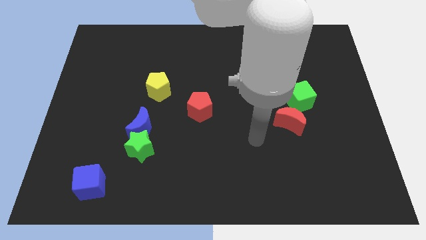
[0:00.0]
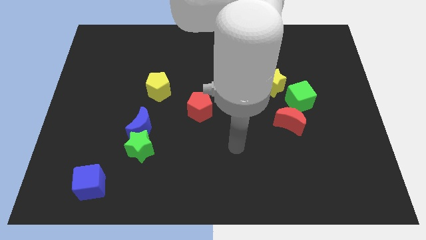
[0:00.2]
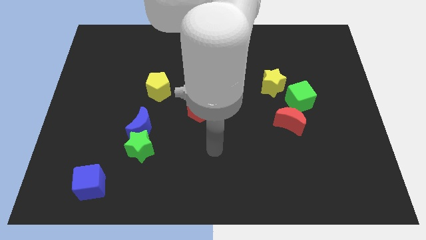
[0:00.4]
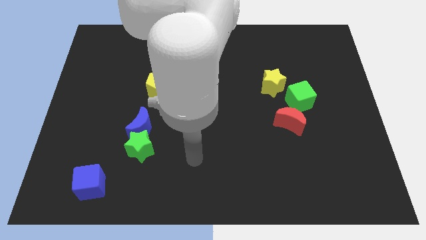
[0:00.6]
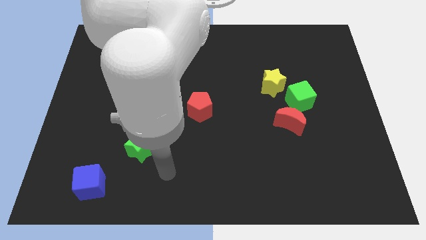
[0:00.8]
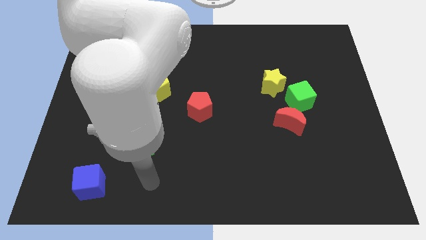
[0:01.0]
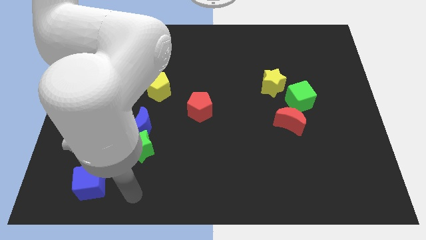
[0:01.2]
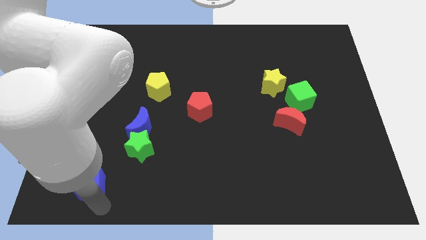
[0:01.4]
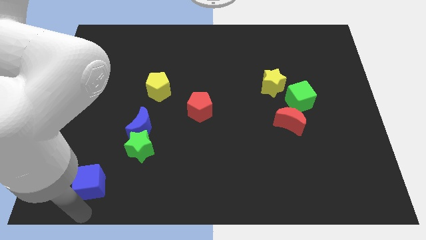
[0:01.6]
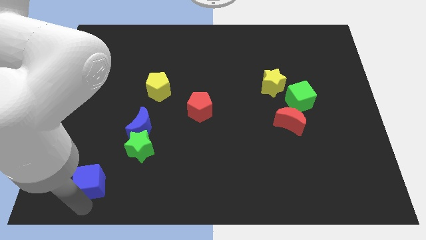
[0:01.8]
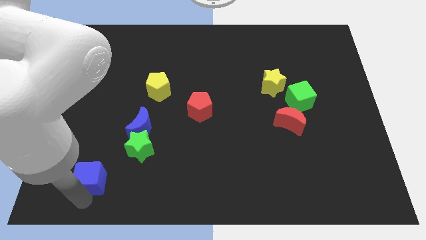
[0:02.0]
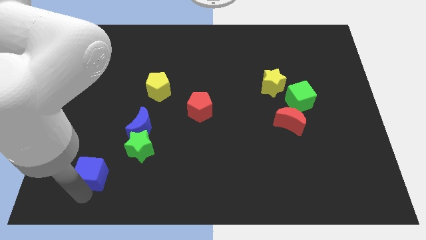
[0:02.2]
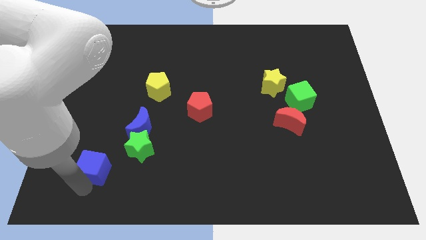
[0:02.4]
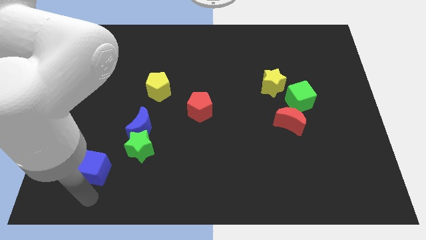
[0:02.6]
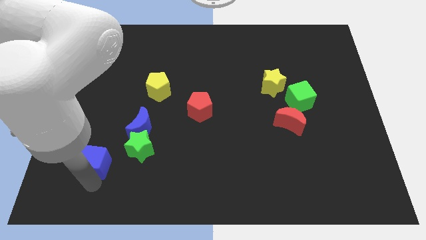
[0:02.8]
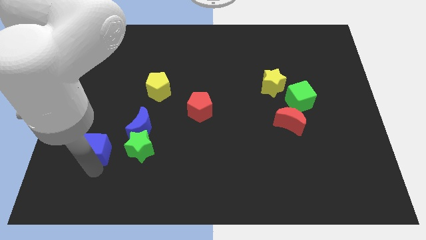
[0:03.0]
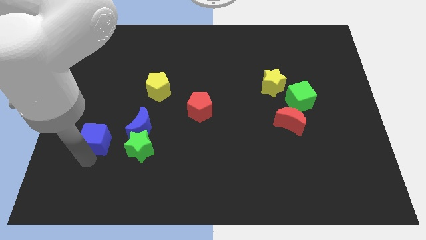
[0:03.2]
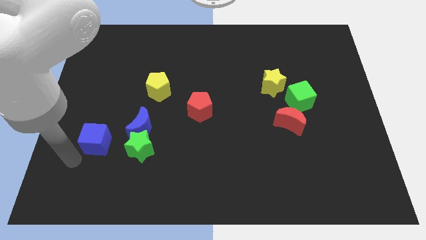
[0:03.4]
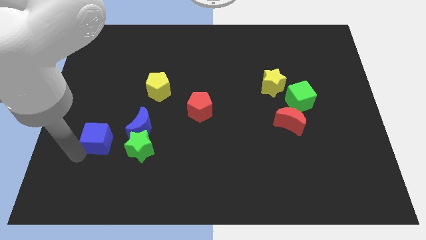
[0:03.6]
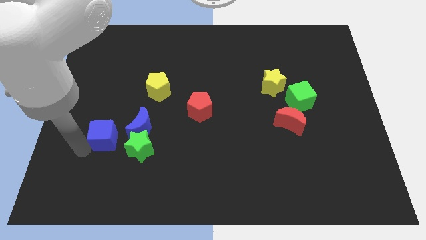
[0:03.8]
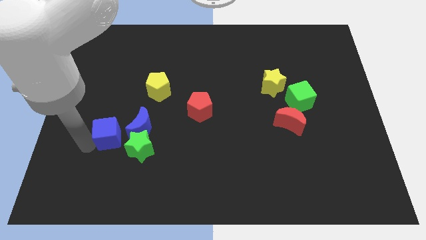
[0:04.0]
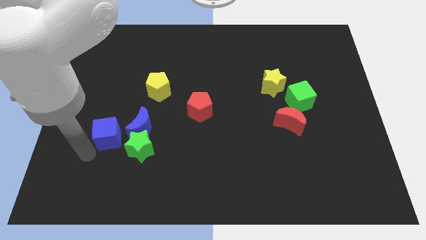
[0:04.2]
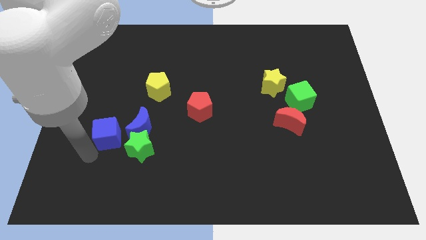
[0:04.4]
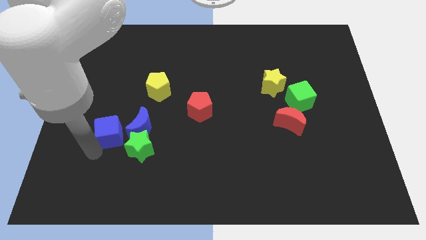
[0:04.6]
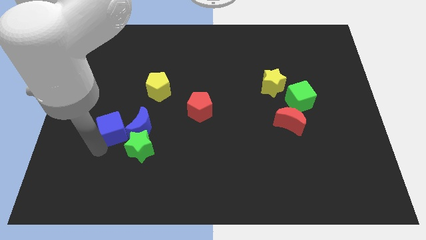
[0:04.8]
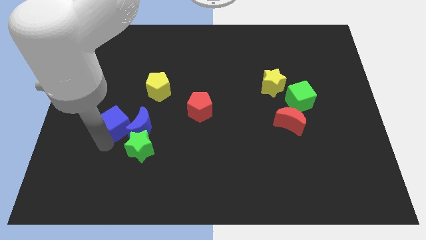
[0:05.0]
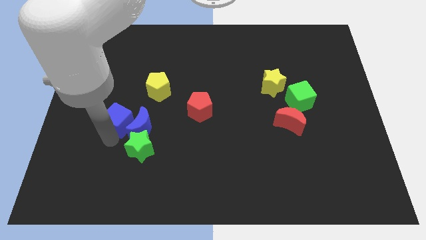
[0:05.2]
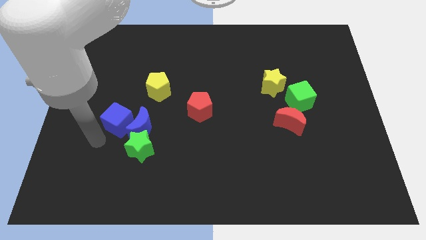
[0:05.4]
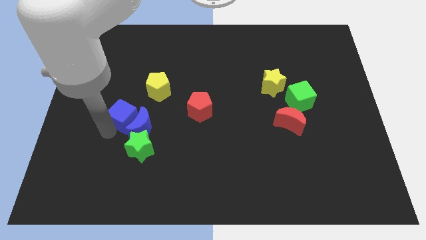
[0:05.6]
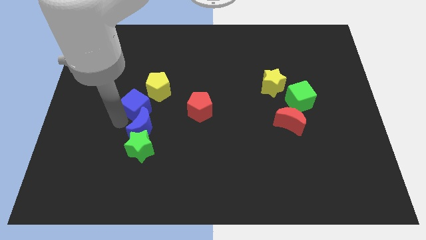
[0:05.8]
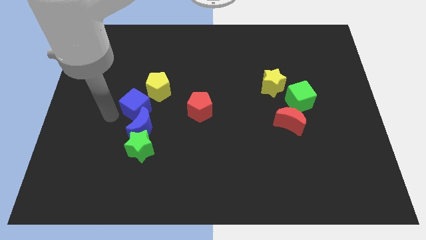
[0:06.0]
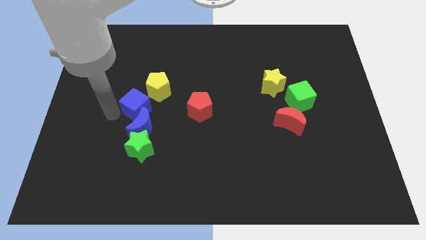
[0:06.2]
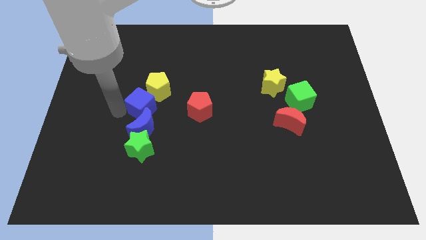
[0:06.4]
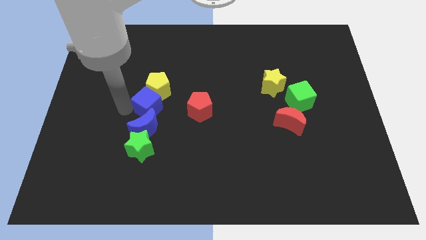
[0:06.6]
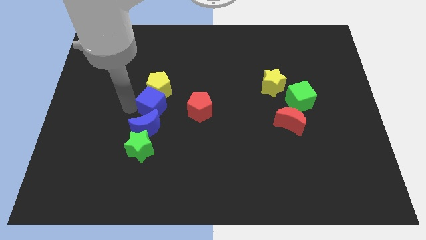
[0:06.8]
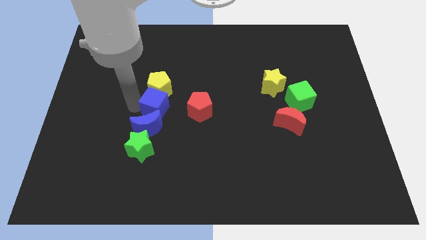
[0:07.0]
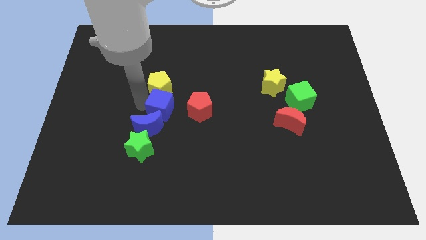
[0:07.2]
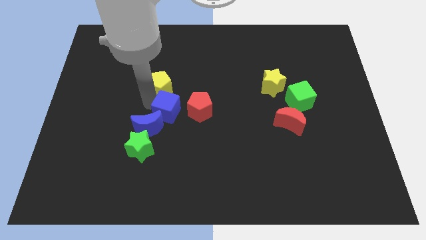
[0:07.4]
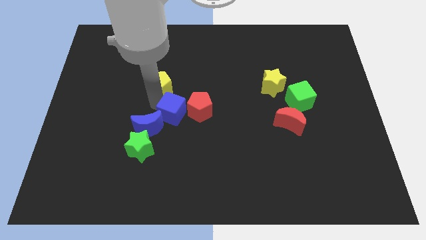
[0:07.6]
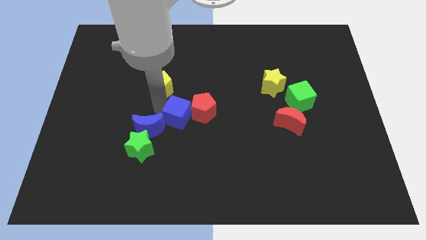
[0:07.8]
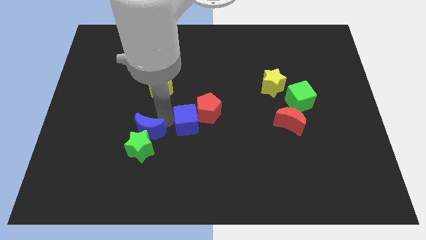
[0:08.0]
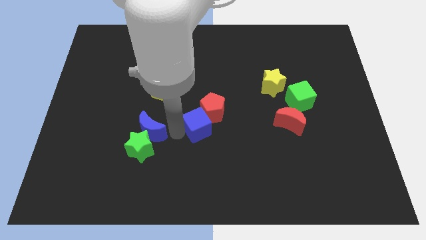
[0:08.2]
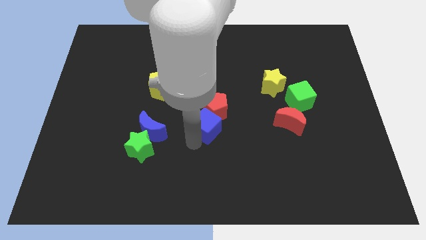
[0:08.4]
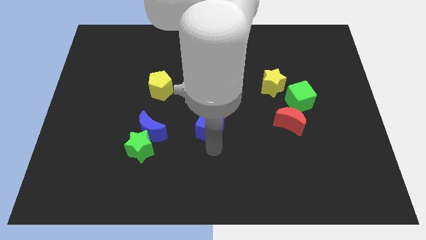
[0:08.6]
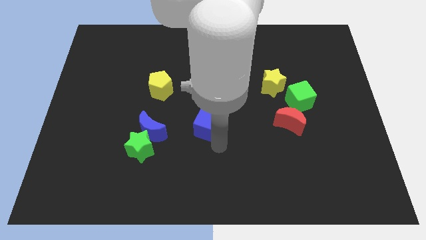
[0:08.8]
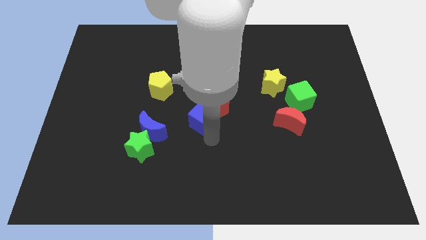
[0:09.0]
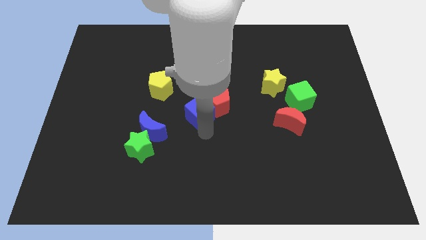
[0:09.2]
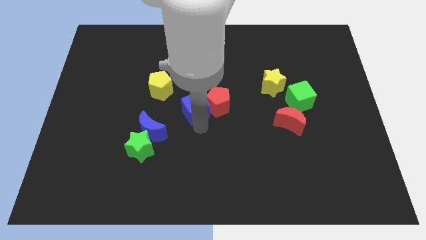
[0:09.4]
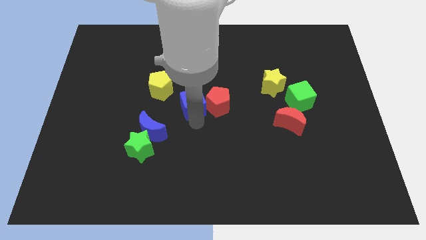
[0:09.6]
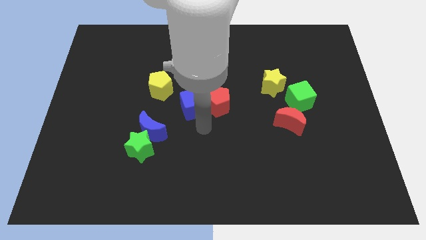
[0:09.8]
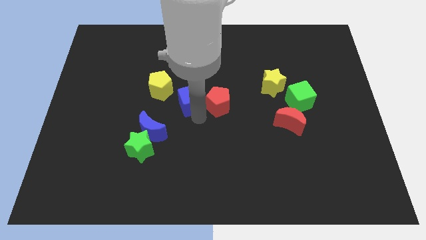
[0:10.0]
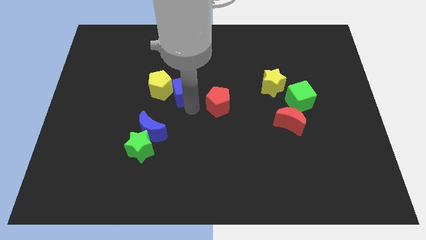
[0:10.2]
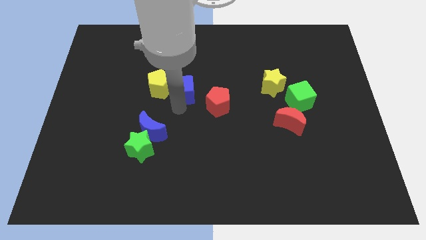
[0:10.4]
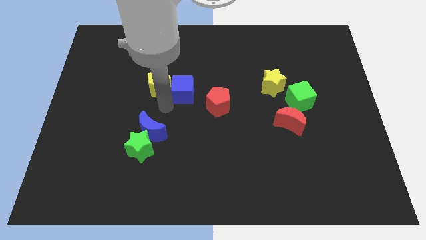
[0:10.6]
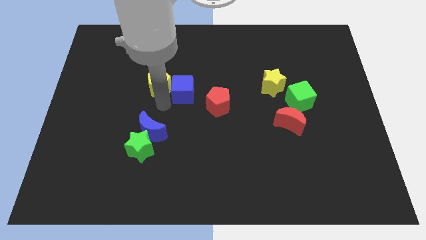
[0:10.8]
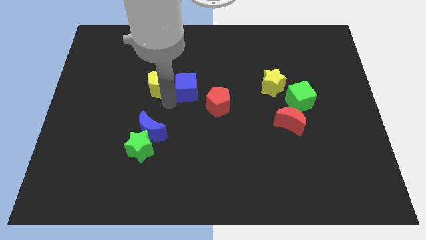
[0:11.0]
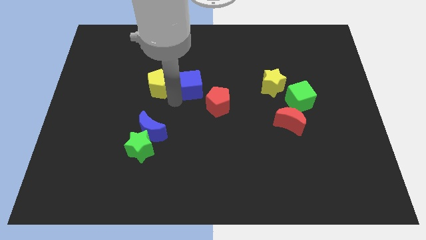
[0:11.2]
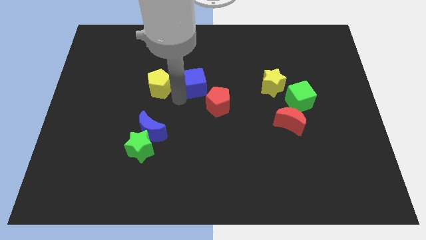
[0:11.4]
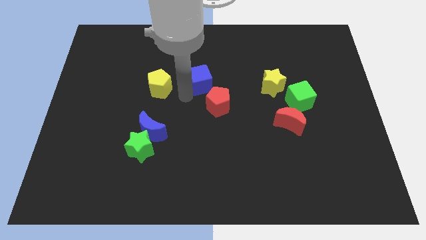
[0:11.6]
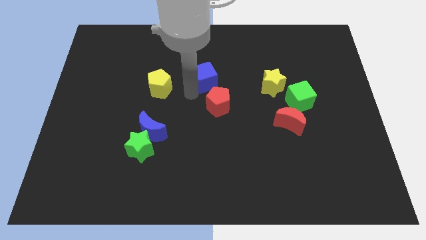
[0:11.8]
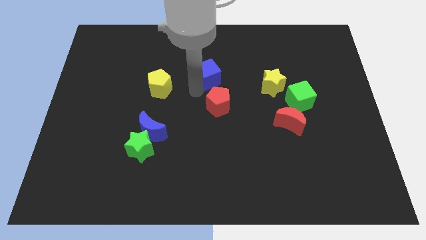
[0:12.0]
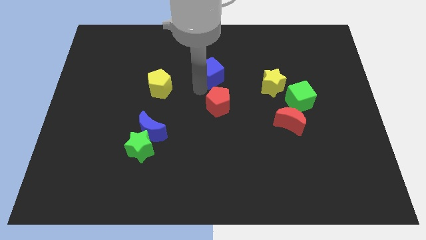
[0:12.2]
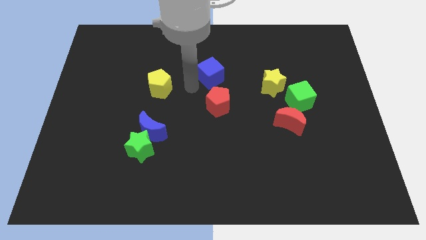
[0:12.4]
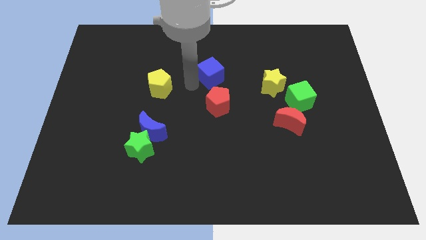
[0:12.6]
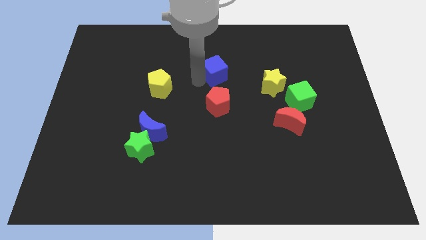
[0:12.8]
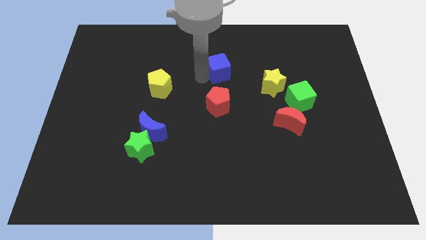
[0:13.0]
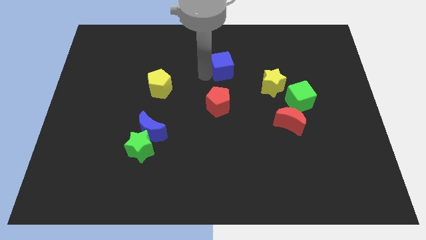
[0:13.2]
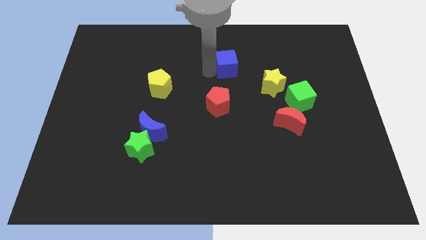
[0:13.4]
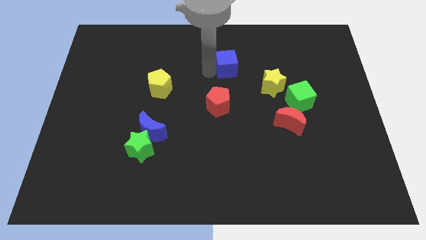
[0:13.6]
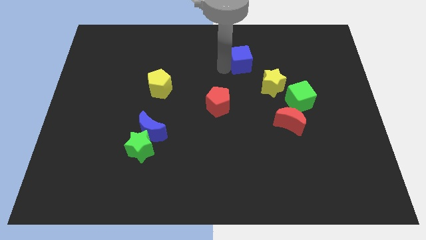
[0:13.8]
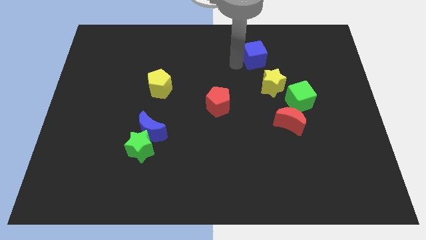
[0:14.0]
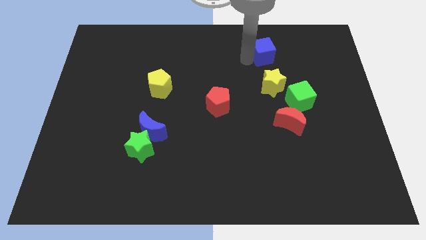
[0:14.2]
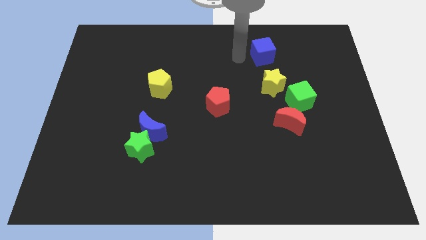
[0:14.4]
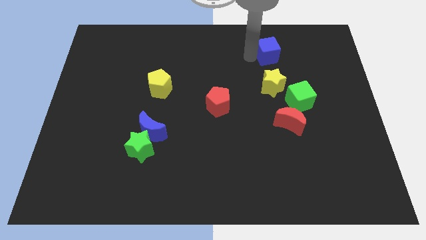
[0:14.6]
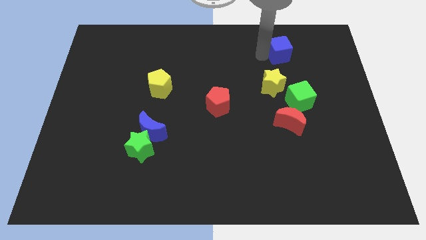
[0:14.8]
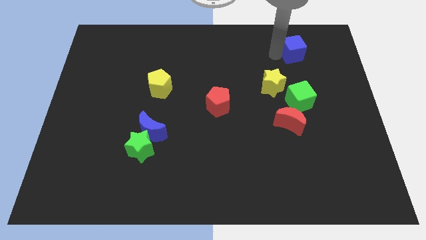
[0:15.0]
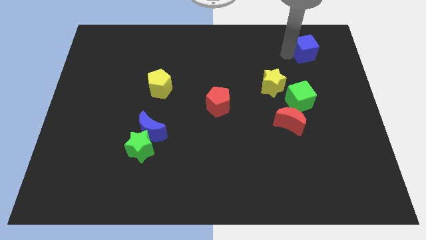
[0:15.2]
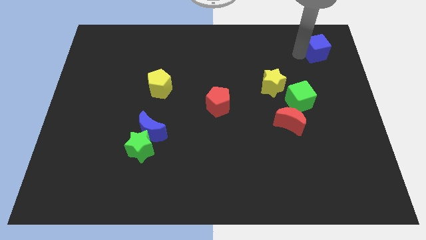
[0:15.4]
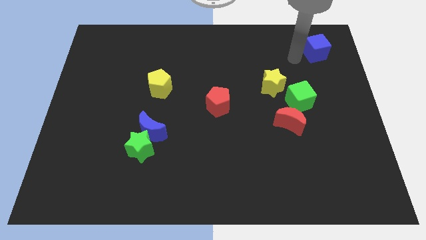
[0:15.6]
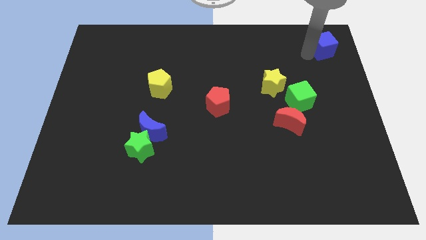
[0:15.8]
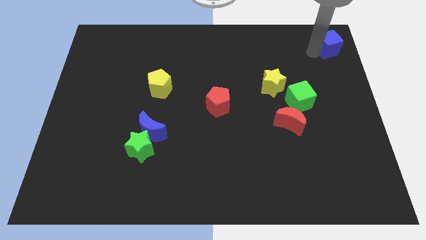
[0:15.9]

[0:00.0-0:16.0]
slide the blue cube to the upper right corner
